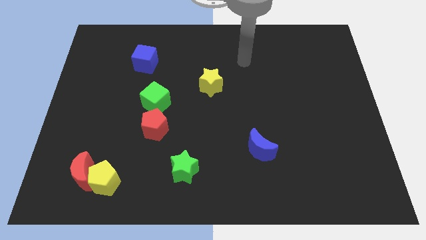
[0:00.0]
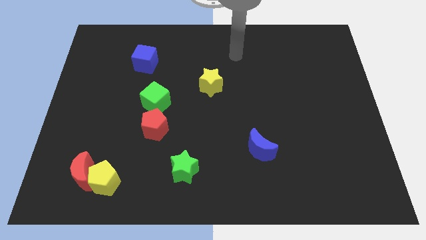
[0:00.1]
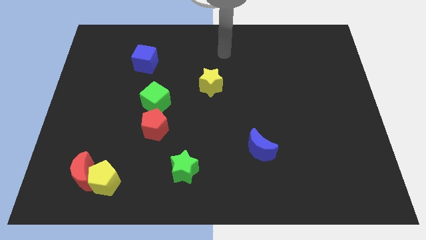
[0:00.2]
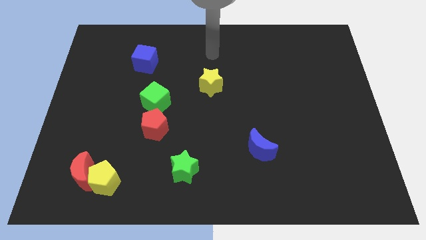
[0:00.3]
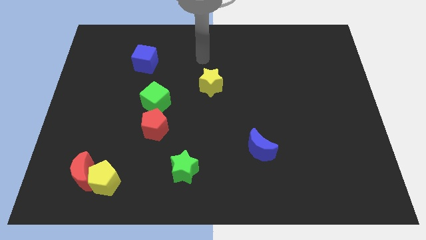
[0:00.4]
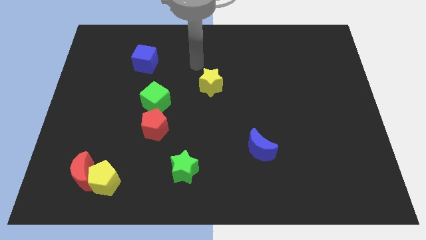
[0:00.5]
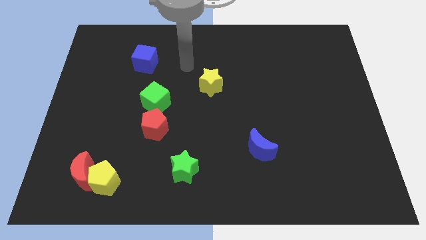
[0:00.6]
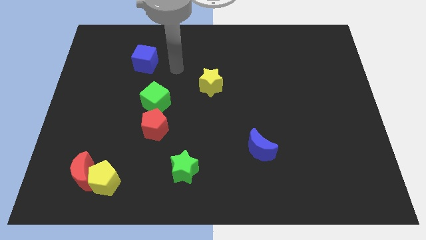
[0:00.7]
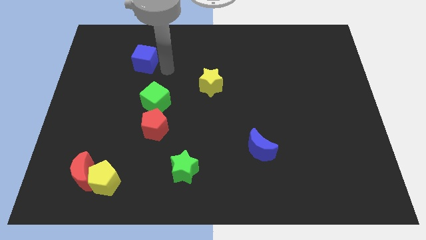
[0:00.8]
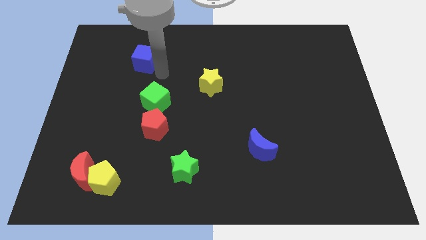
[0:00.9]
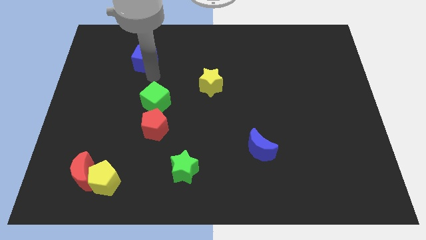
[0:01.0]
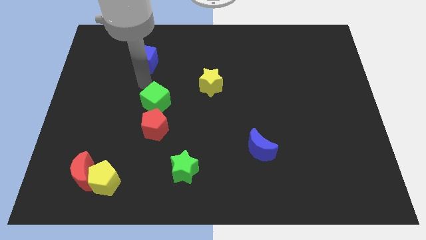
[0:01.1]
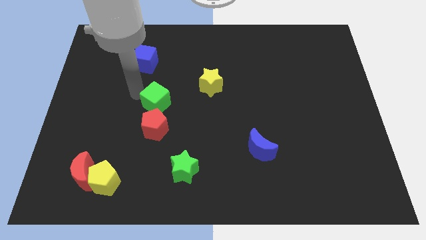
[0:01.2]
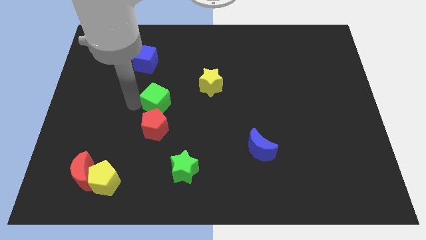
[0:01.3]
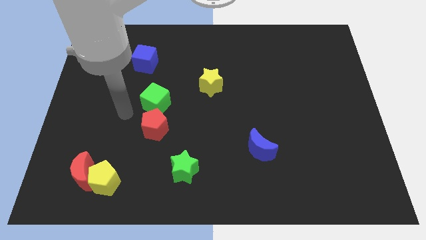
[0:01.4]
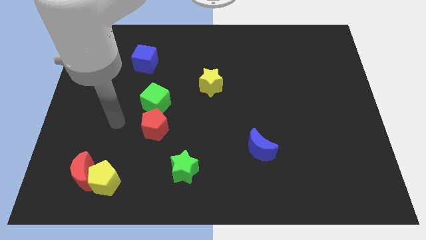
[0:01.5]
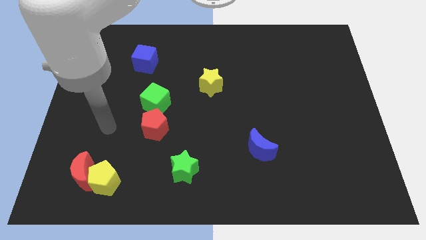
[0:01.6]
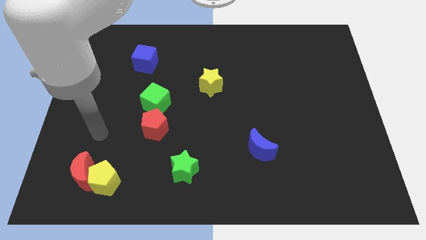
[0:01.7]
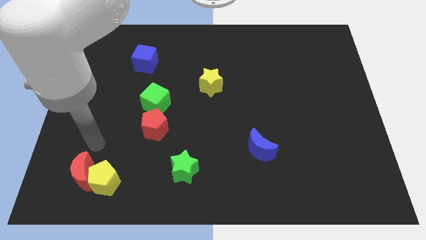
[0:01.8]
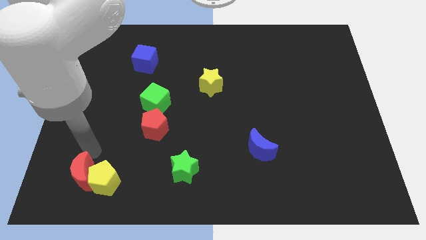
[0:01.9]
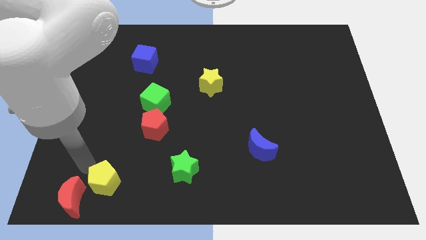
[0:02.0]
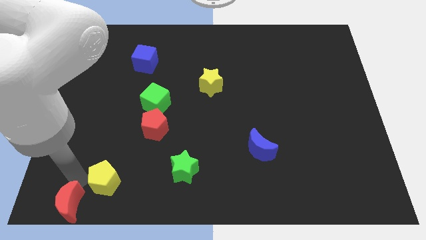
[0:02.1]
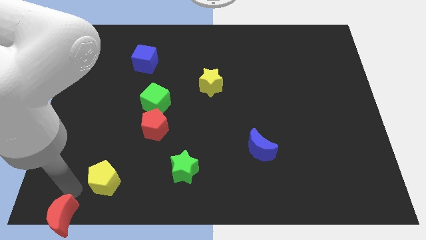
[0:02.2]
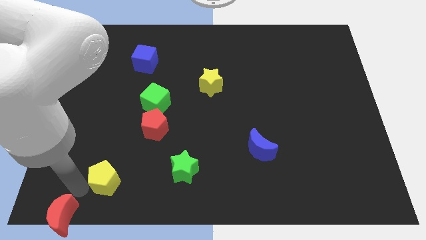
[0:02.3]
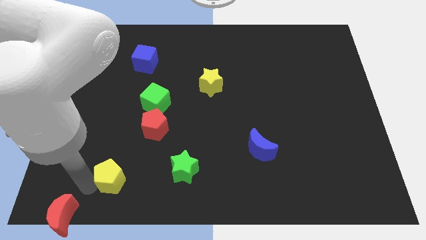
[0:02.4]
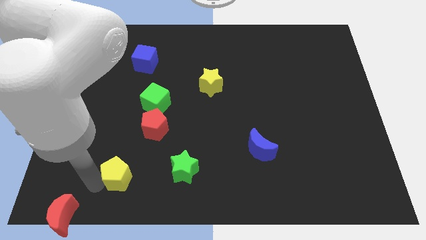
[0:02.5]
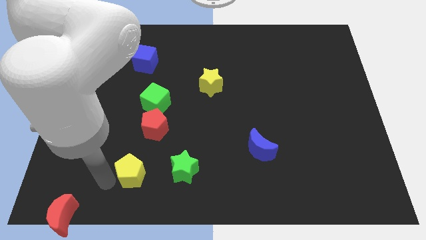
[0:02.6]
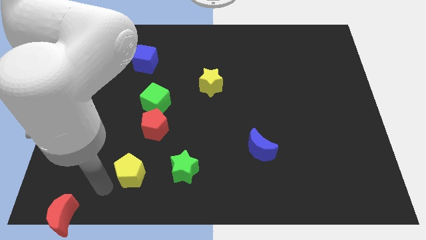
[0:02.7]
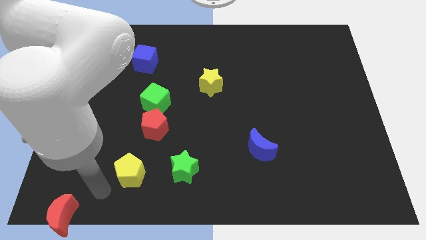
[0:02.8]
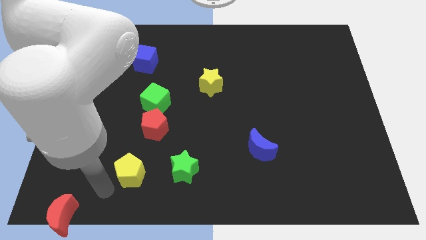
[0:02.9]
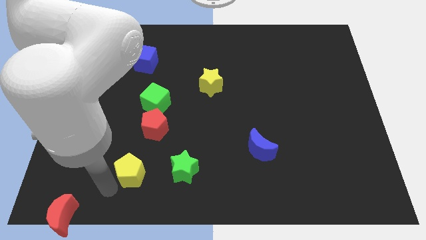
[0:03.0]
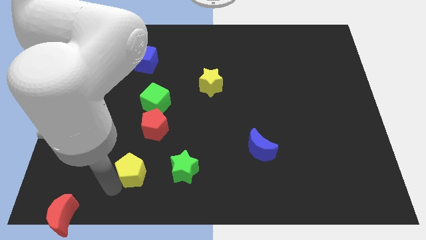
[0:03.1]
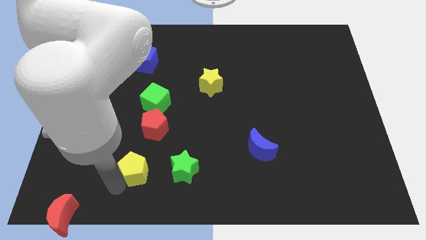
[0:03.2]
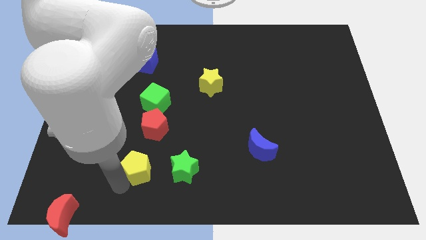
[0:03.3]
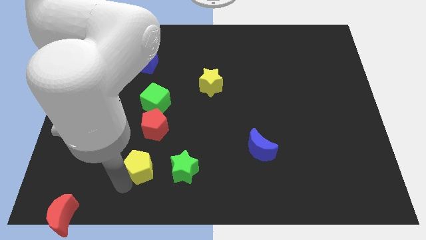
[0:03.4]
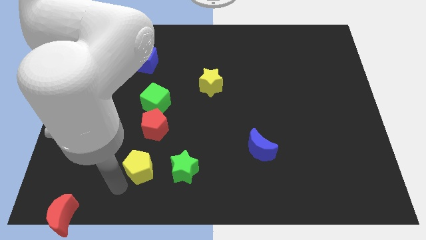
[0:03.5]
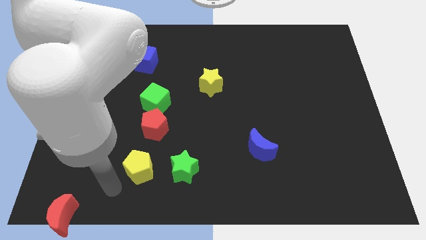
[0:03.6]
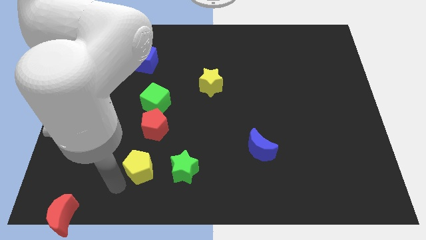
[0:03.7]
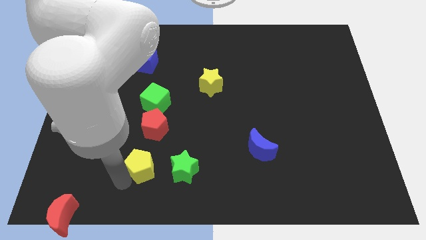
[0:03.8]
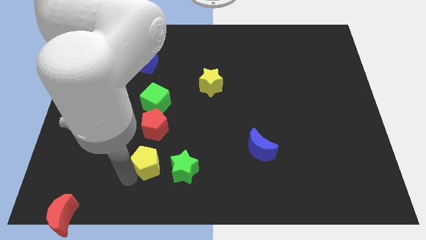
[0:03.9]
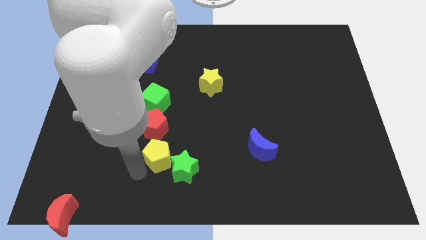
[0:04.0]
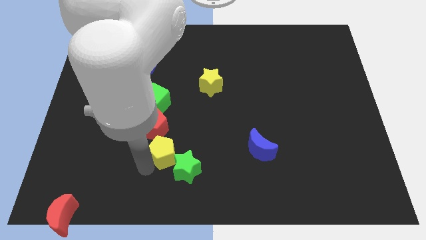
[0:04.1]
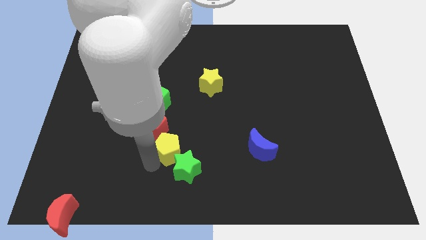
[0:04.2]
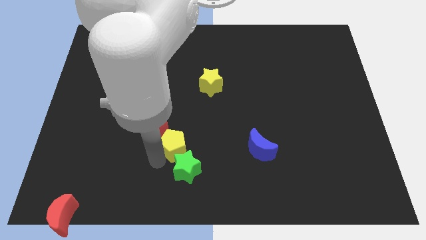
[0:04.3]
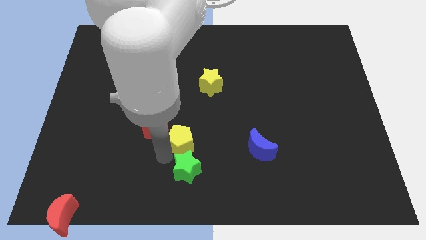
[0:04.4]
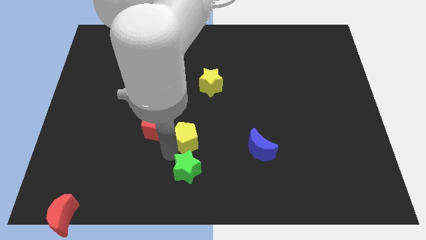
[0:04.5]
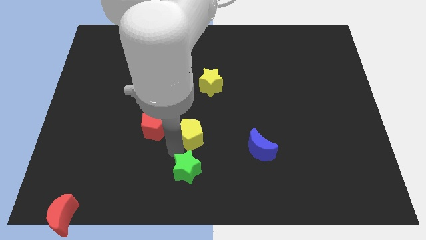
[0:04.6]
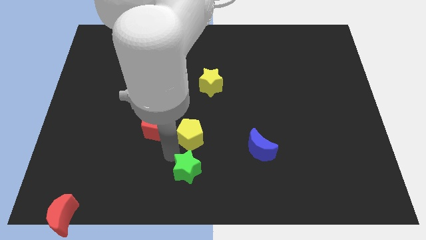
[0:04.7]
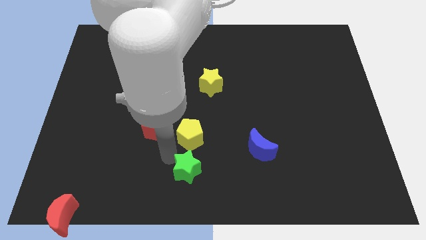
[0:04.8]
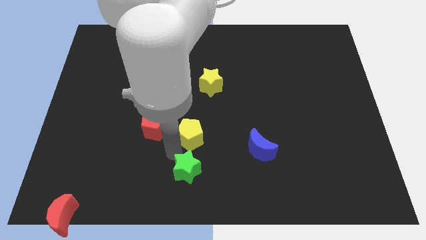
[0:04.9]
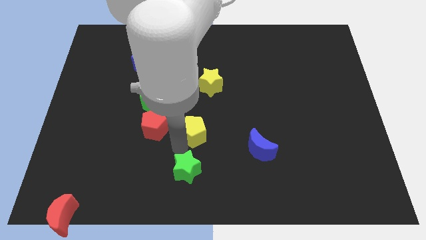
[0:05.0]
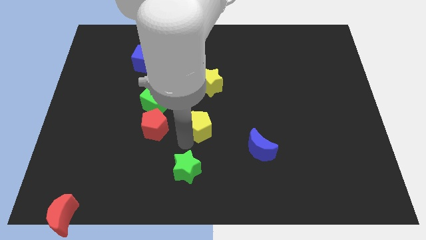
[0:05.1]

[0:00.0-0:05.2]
move the yellow pentagon to the bottom side of the yellow star

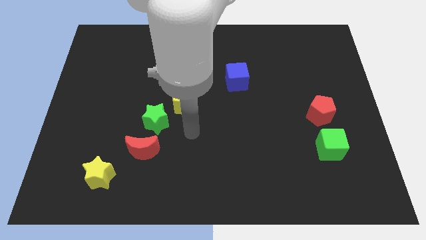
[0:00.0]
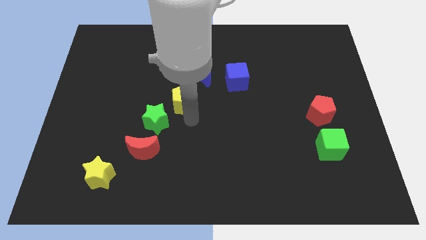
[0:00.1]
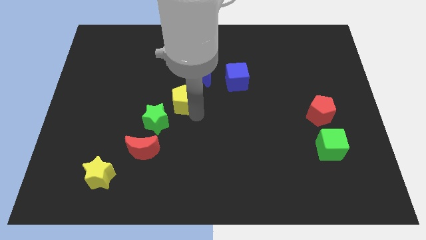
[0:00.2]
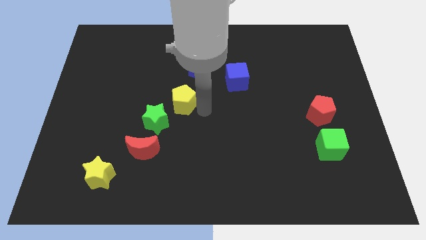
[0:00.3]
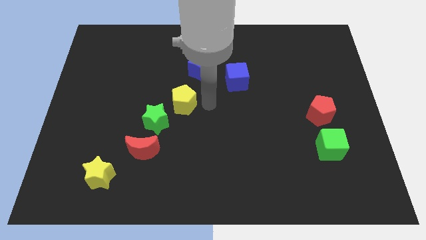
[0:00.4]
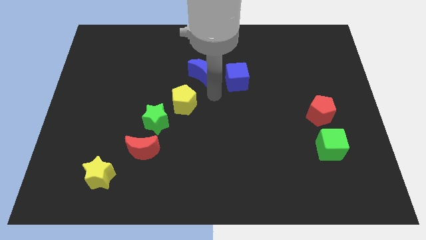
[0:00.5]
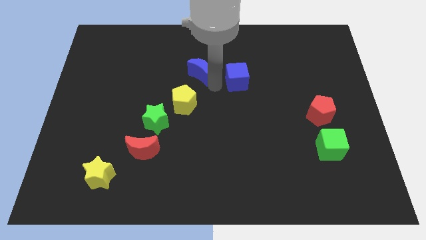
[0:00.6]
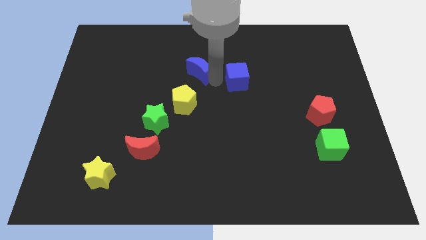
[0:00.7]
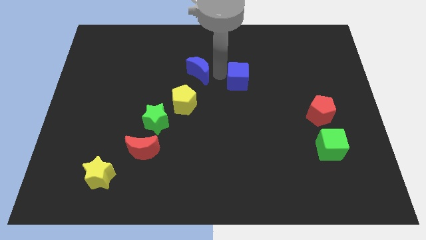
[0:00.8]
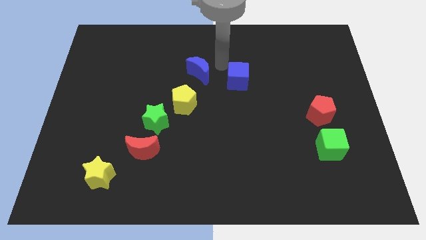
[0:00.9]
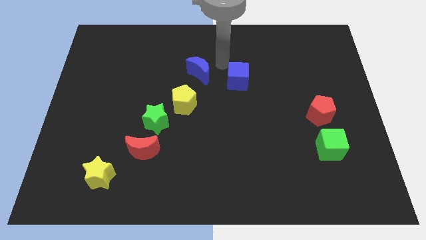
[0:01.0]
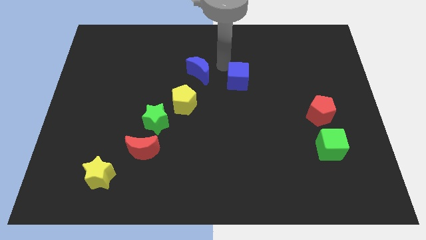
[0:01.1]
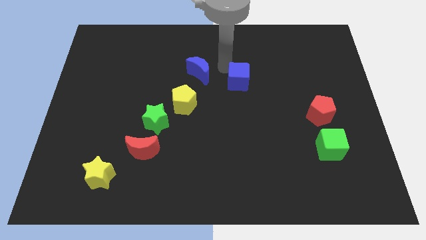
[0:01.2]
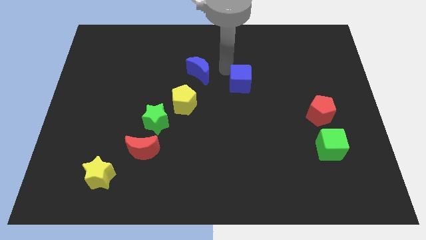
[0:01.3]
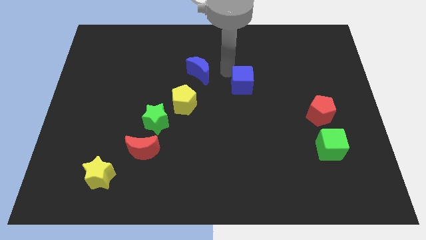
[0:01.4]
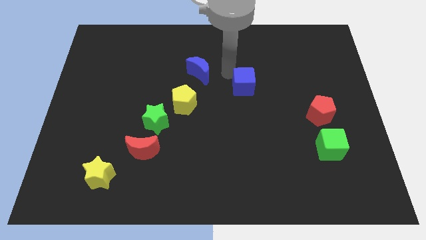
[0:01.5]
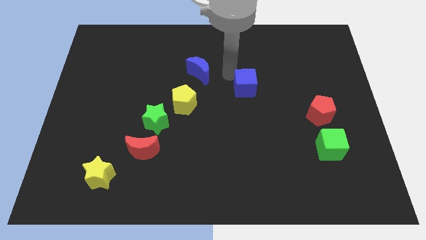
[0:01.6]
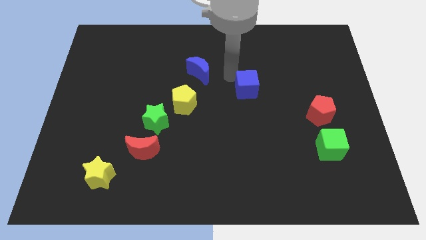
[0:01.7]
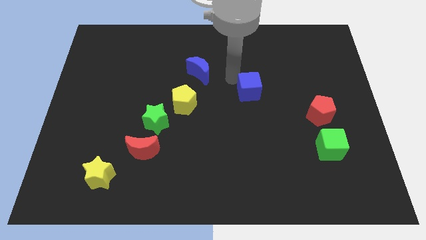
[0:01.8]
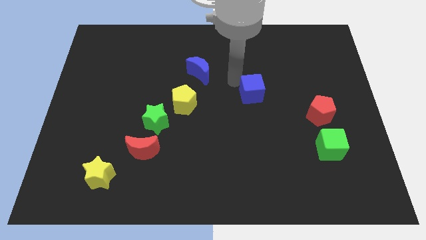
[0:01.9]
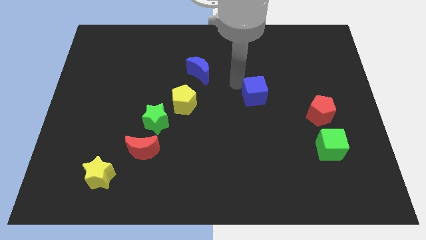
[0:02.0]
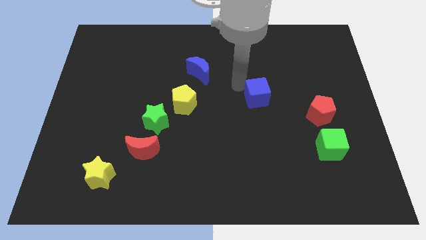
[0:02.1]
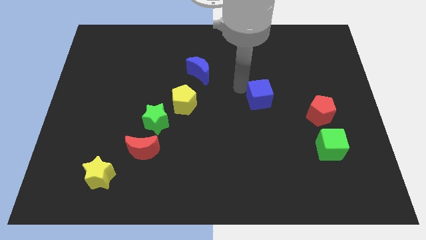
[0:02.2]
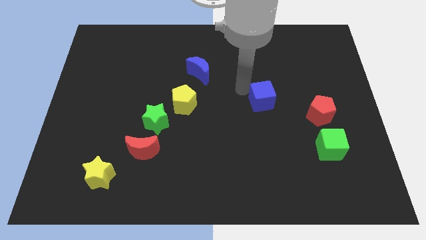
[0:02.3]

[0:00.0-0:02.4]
put the blue cube left of the red pentagon
